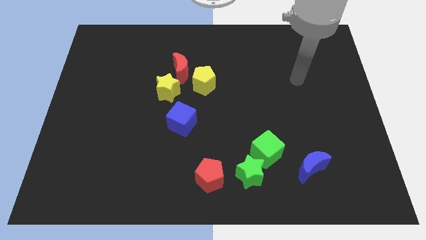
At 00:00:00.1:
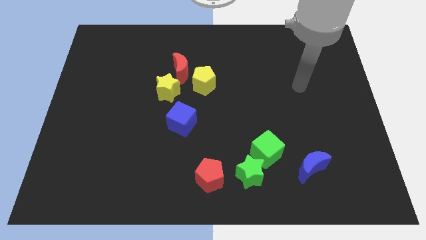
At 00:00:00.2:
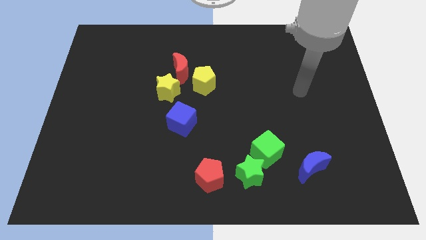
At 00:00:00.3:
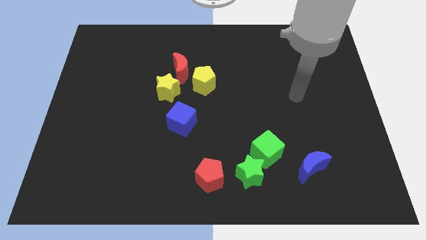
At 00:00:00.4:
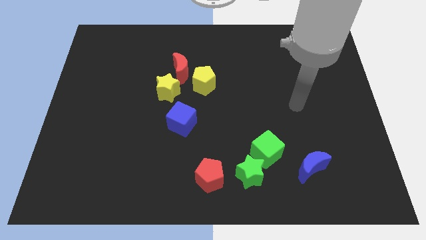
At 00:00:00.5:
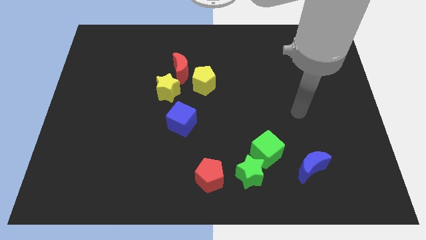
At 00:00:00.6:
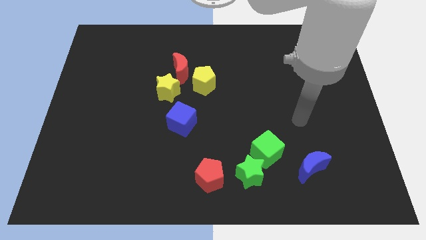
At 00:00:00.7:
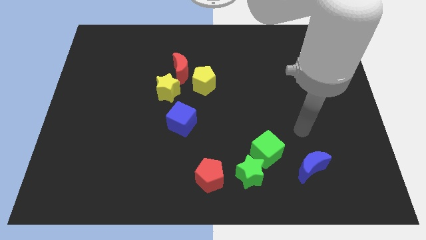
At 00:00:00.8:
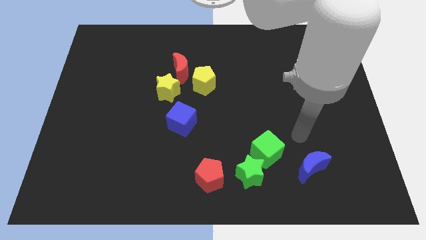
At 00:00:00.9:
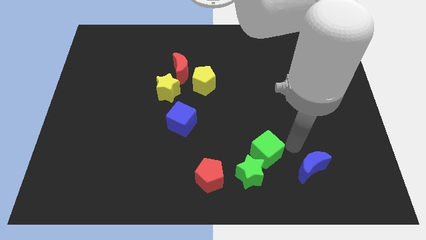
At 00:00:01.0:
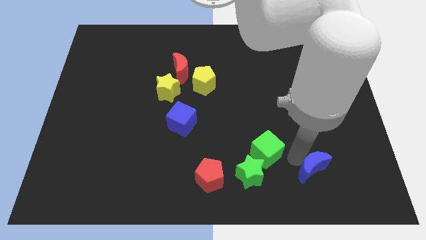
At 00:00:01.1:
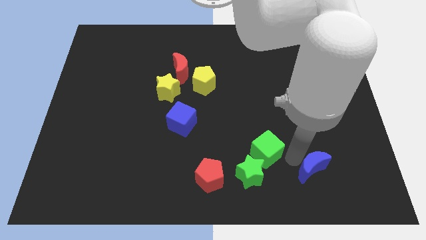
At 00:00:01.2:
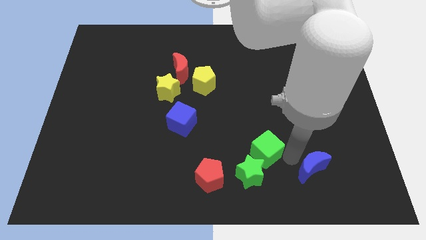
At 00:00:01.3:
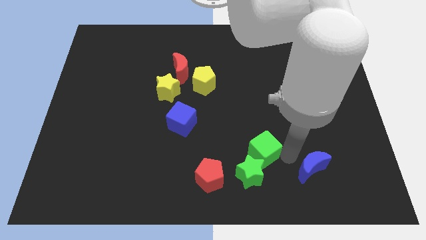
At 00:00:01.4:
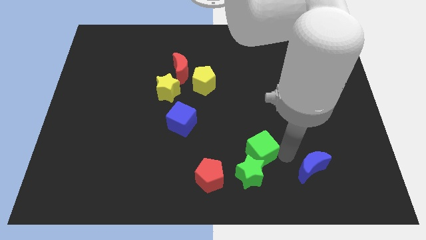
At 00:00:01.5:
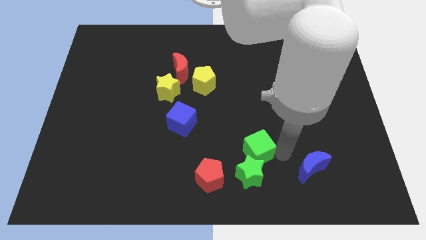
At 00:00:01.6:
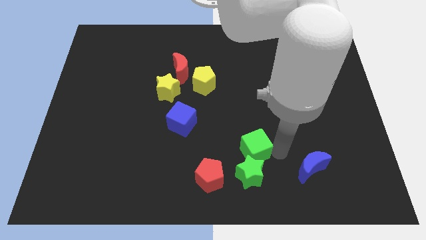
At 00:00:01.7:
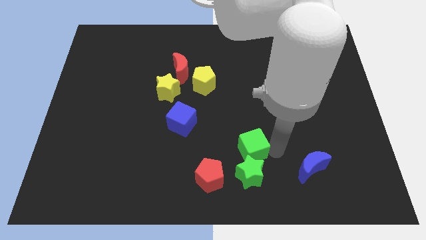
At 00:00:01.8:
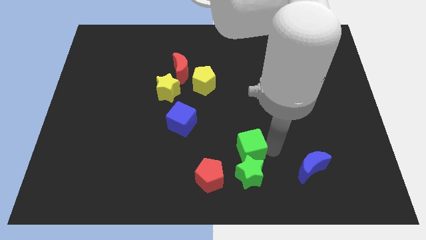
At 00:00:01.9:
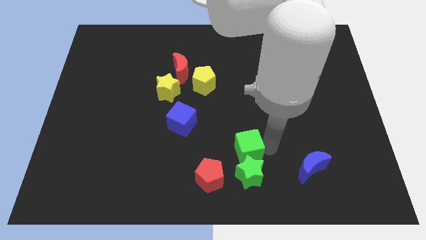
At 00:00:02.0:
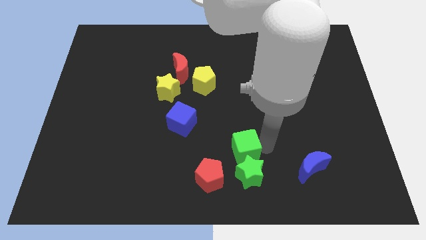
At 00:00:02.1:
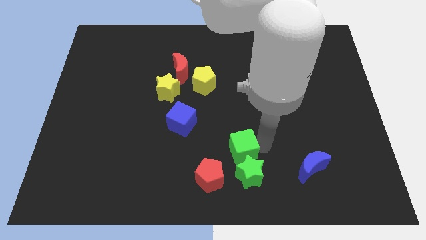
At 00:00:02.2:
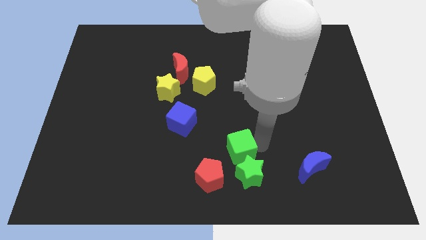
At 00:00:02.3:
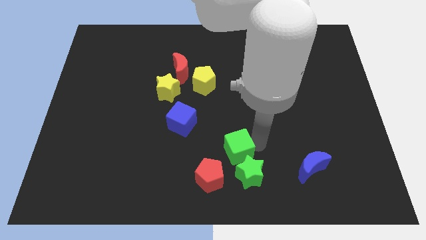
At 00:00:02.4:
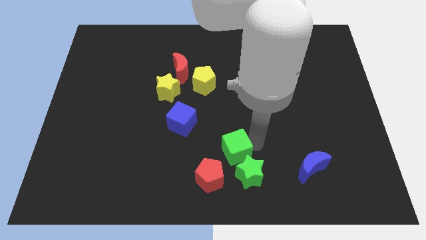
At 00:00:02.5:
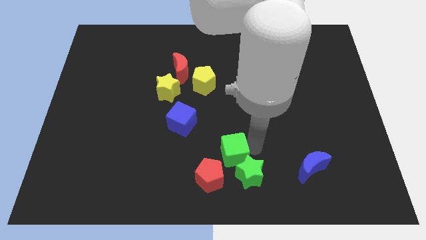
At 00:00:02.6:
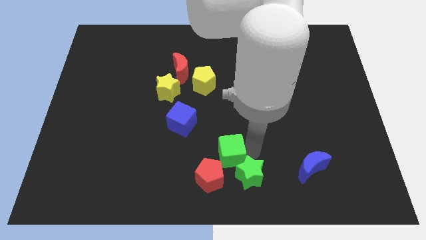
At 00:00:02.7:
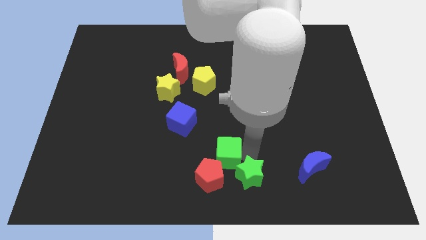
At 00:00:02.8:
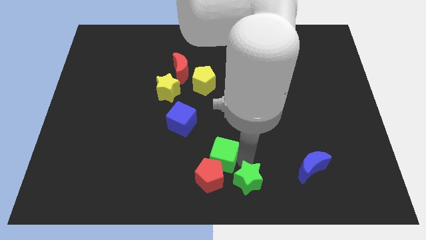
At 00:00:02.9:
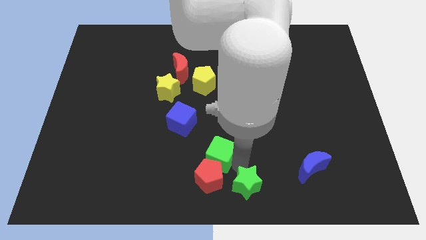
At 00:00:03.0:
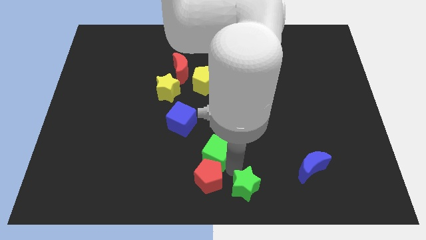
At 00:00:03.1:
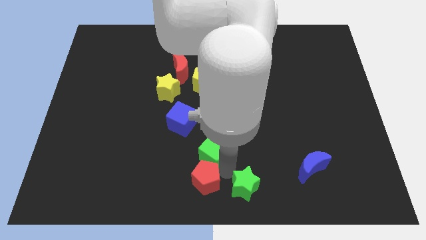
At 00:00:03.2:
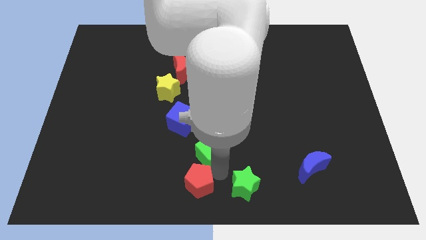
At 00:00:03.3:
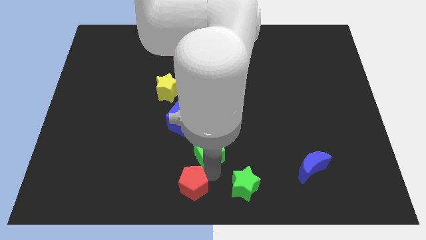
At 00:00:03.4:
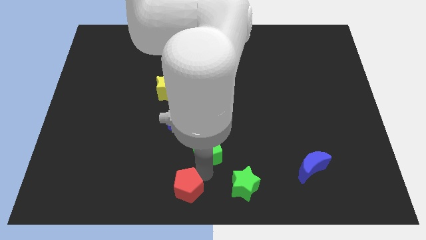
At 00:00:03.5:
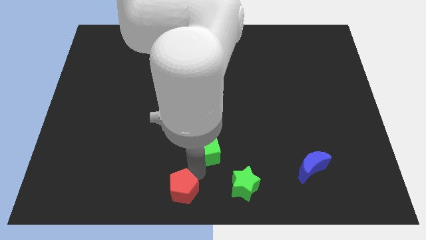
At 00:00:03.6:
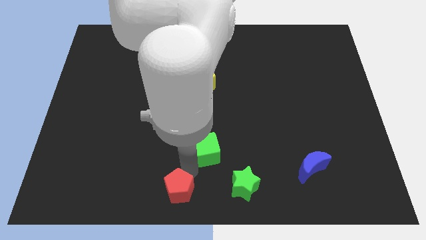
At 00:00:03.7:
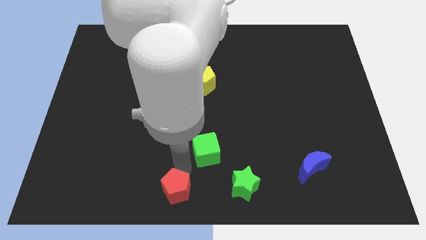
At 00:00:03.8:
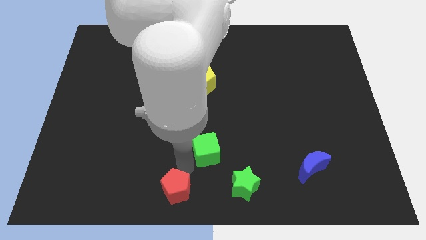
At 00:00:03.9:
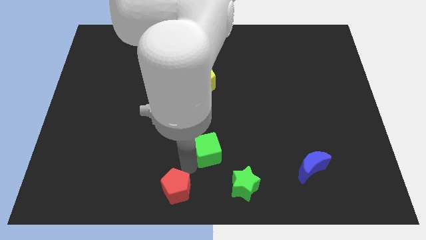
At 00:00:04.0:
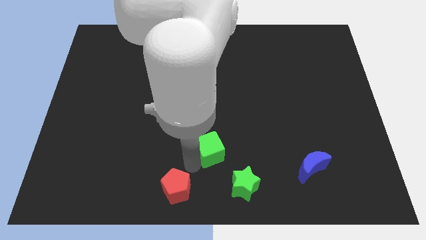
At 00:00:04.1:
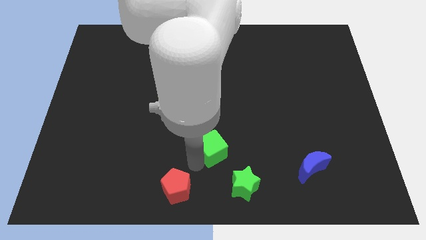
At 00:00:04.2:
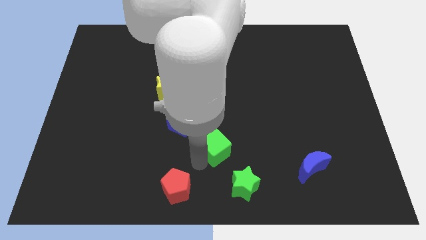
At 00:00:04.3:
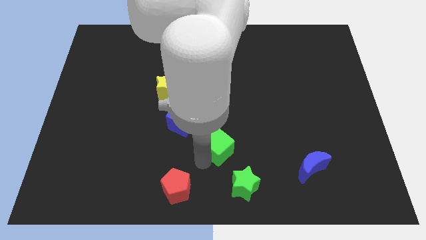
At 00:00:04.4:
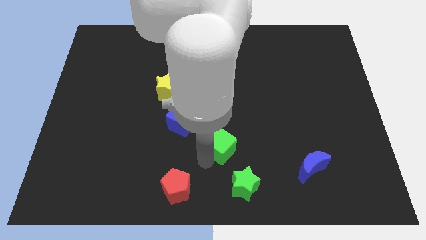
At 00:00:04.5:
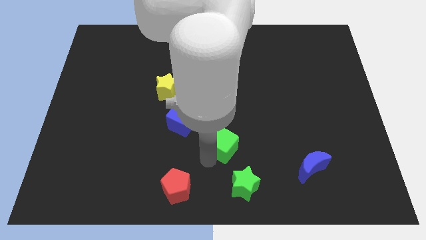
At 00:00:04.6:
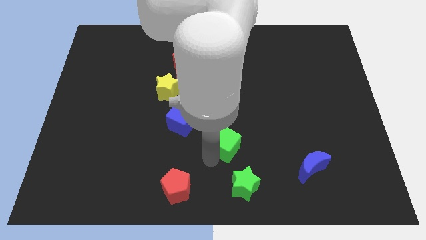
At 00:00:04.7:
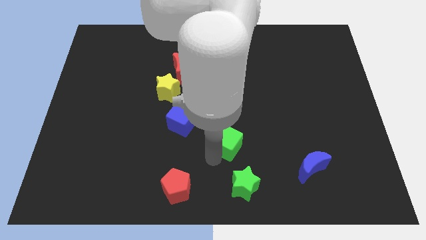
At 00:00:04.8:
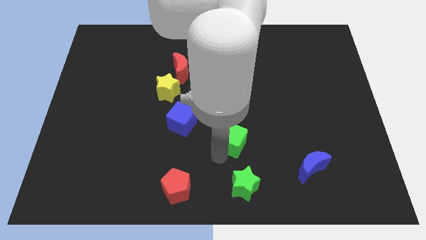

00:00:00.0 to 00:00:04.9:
put the green cube to the middle
